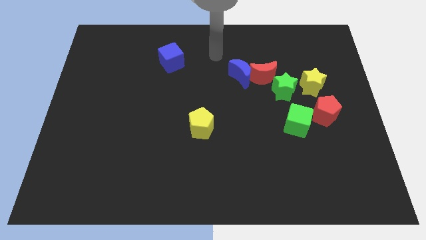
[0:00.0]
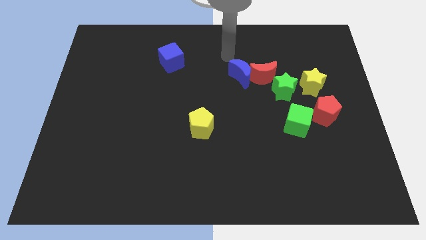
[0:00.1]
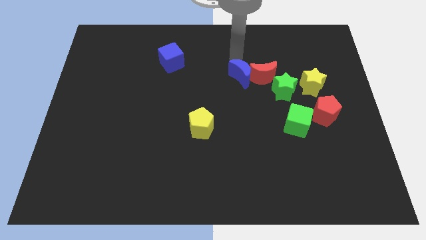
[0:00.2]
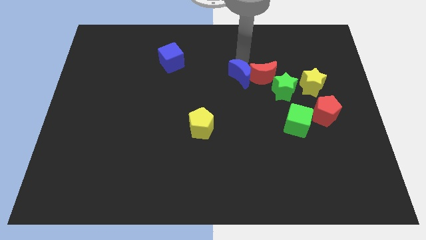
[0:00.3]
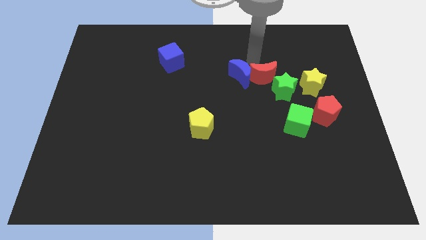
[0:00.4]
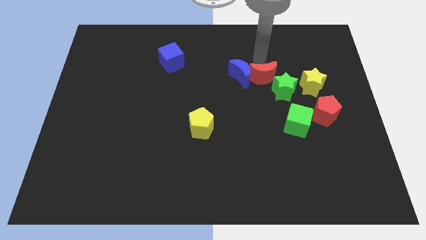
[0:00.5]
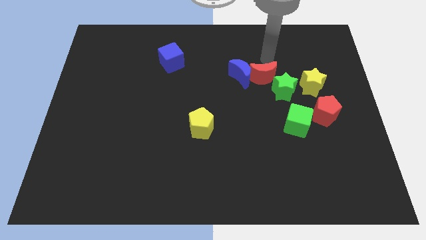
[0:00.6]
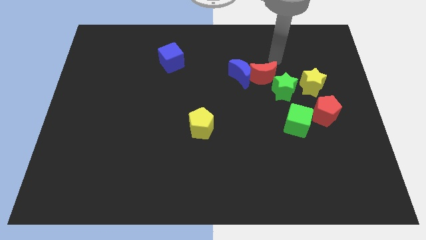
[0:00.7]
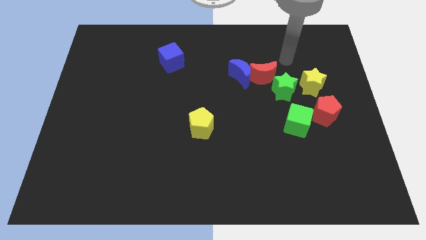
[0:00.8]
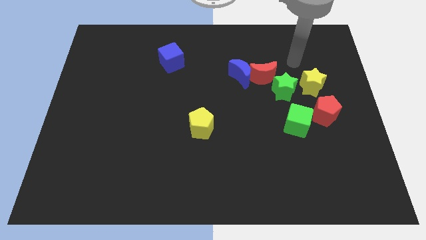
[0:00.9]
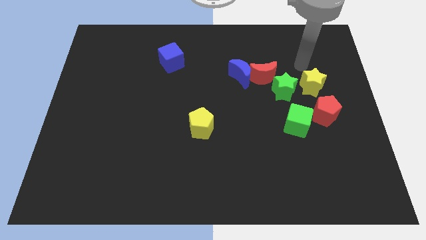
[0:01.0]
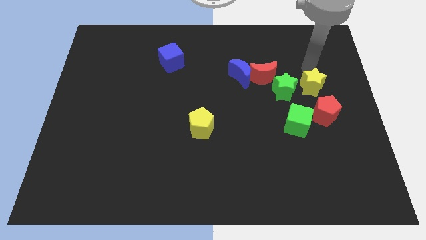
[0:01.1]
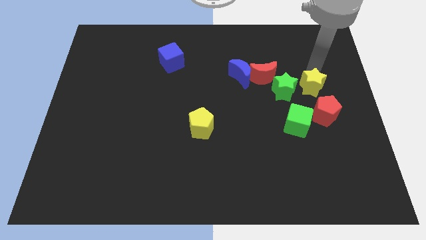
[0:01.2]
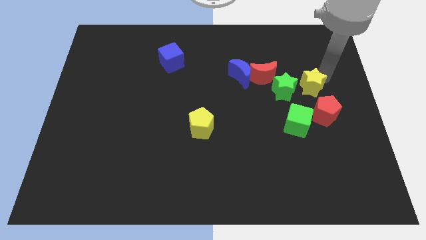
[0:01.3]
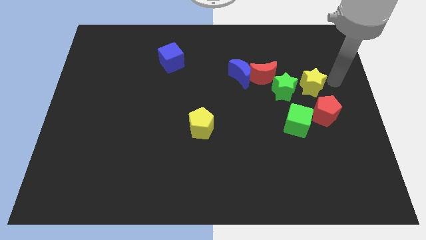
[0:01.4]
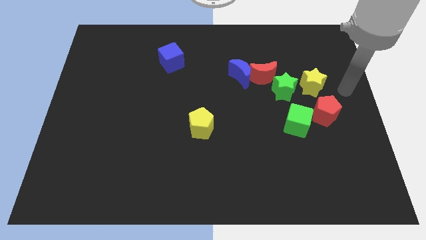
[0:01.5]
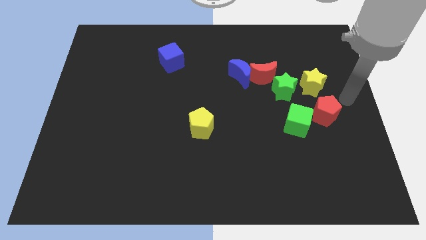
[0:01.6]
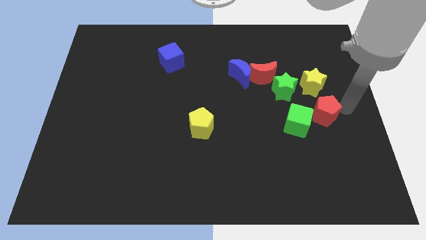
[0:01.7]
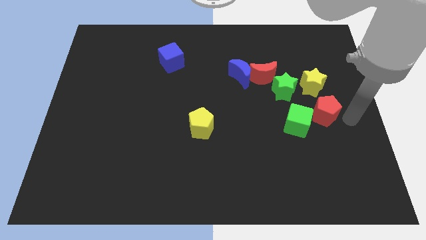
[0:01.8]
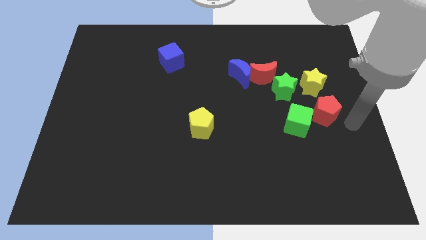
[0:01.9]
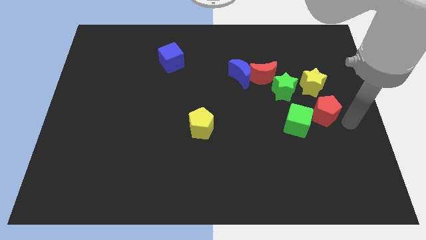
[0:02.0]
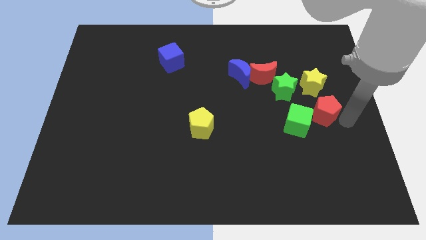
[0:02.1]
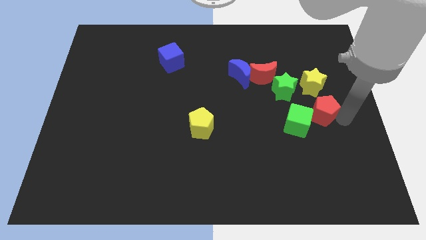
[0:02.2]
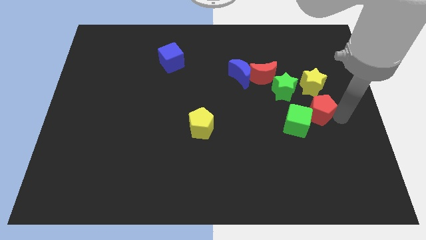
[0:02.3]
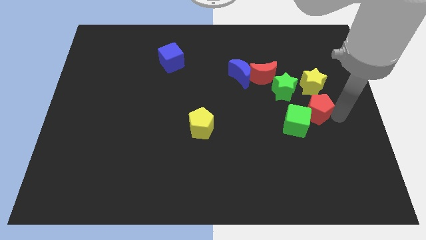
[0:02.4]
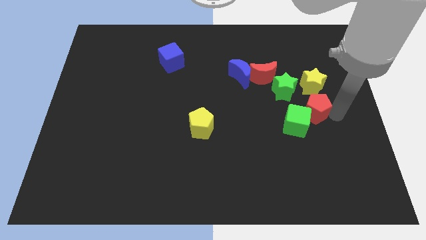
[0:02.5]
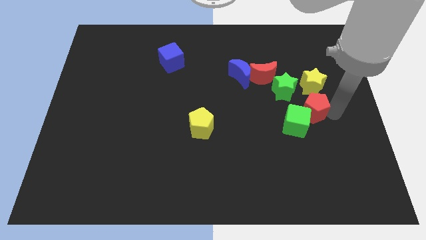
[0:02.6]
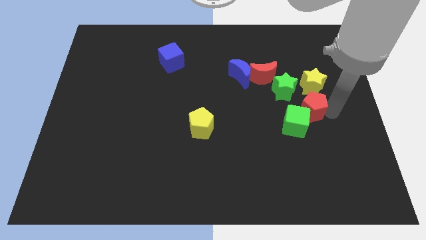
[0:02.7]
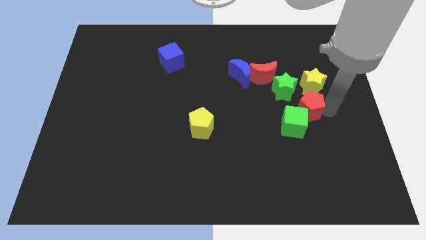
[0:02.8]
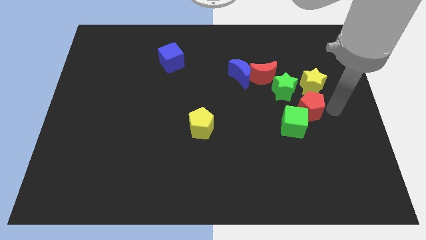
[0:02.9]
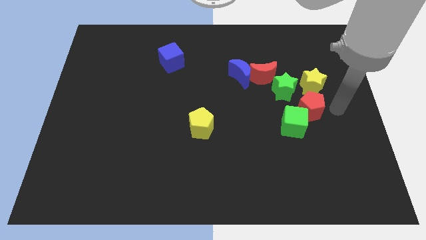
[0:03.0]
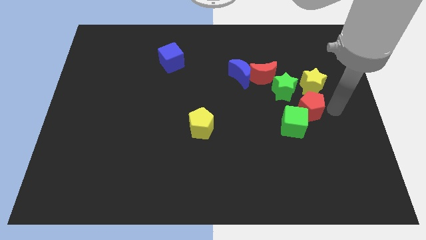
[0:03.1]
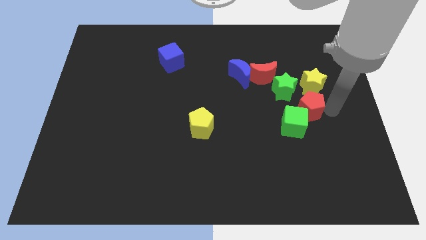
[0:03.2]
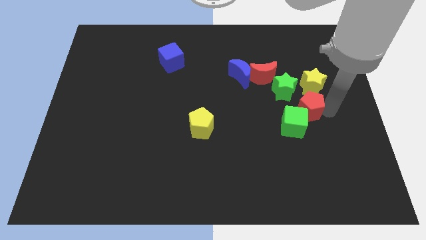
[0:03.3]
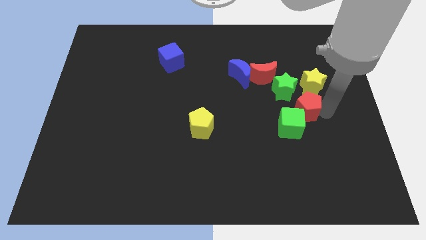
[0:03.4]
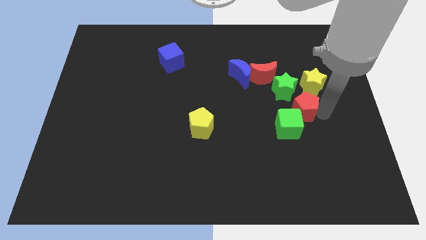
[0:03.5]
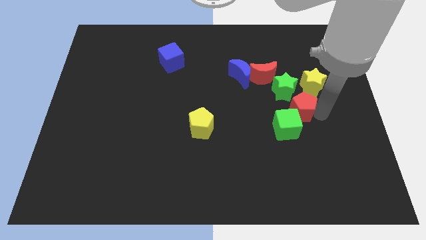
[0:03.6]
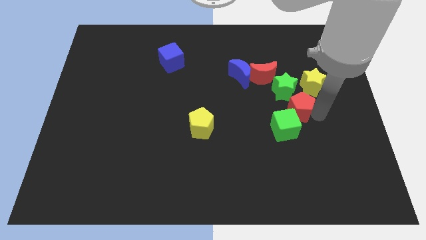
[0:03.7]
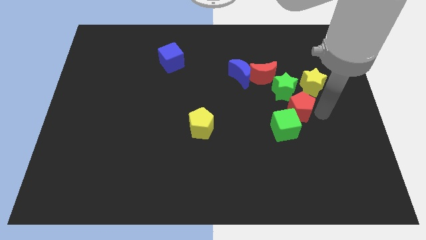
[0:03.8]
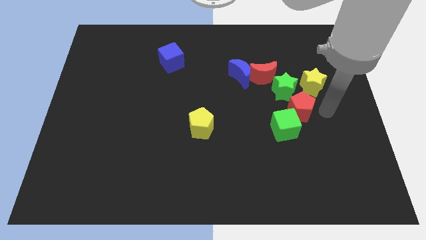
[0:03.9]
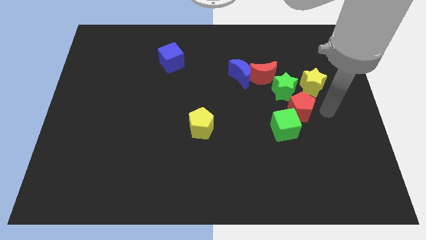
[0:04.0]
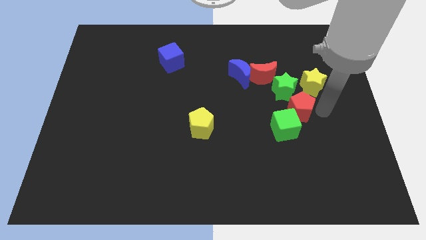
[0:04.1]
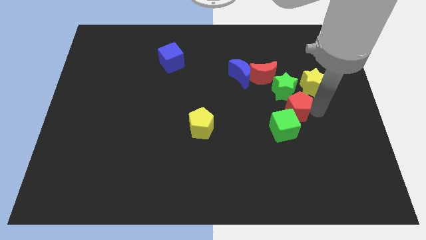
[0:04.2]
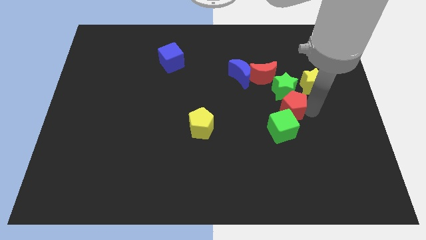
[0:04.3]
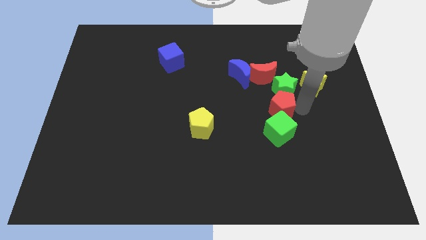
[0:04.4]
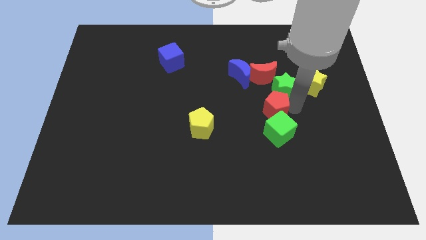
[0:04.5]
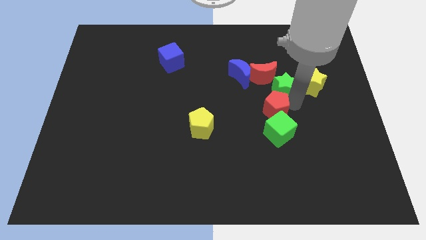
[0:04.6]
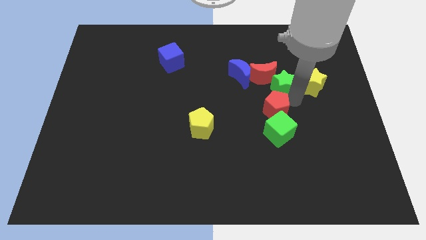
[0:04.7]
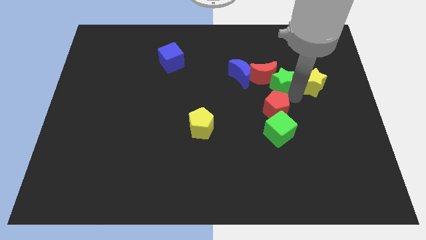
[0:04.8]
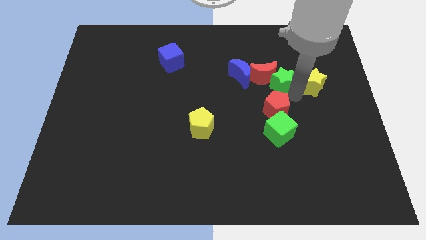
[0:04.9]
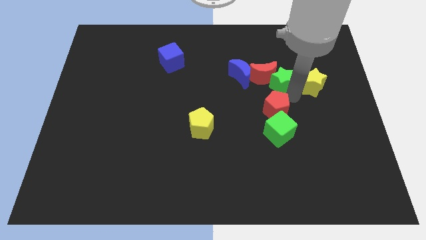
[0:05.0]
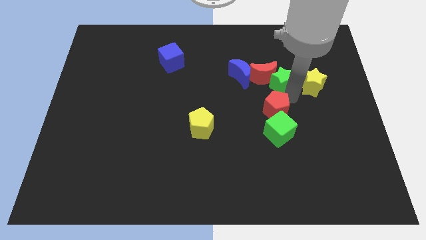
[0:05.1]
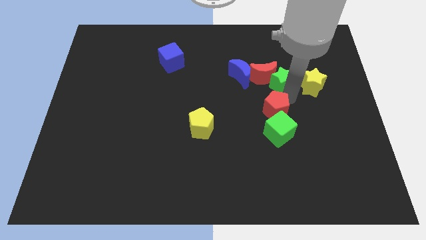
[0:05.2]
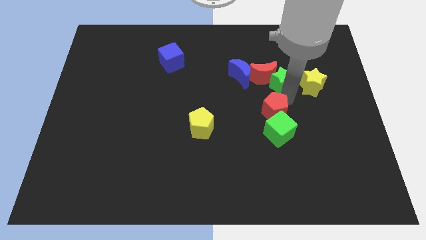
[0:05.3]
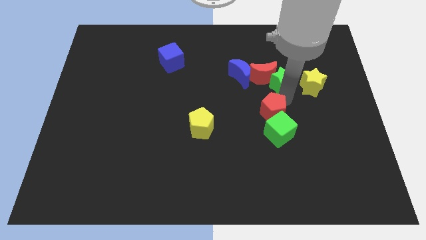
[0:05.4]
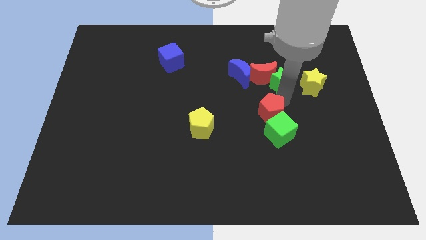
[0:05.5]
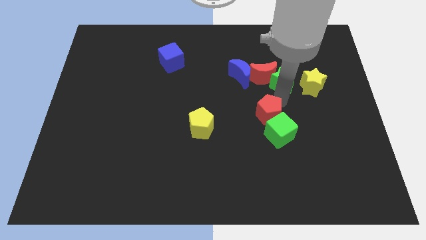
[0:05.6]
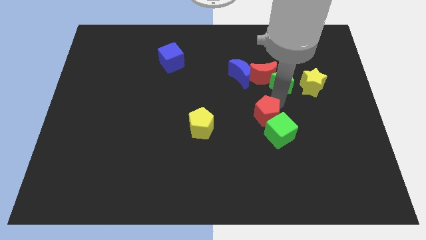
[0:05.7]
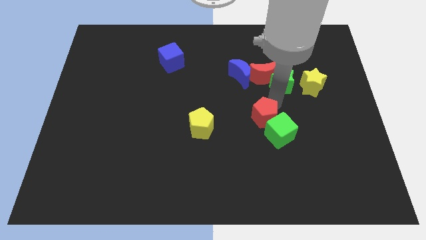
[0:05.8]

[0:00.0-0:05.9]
slide the red pentagon to the right of the yellow pentagon

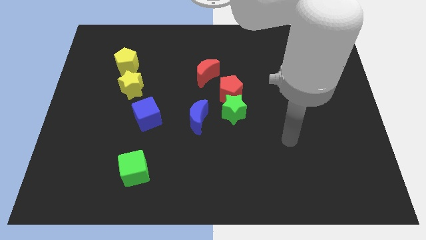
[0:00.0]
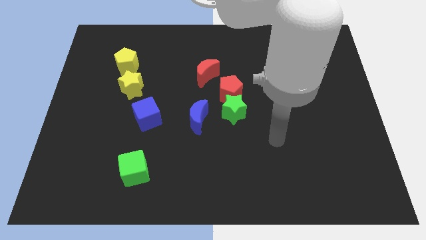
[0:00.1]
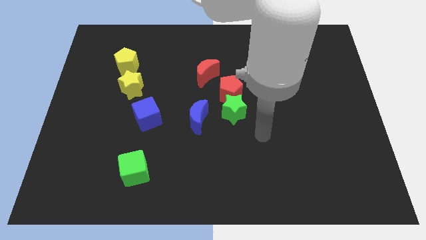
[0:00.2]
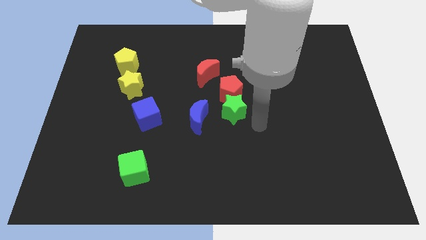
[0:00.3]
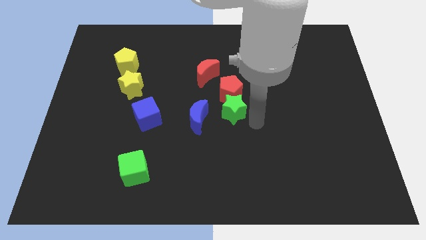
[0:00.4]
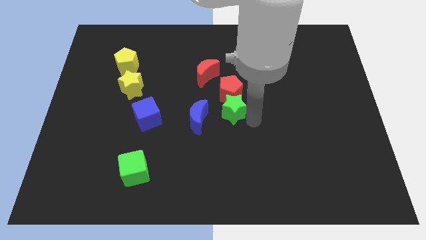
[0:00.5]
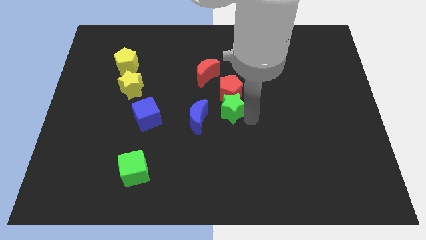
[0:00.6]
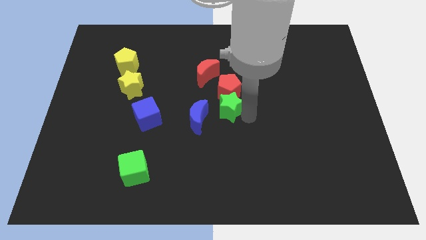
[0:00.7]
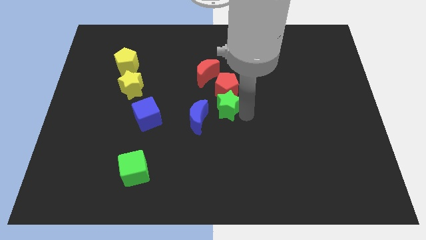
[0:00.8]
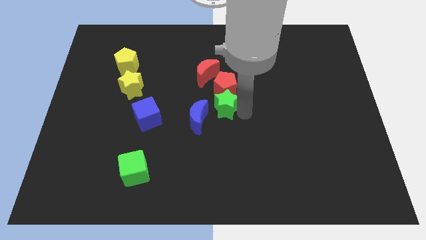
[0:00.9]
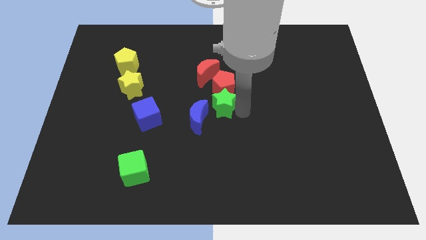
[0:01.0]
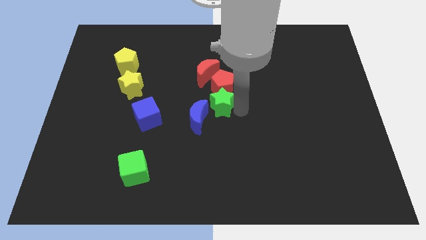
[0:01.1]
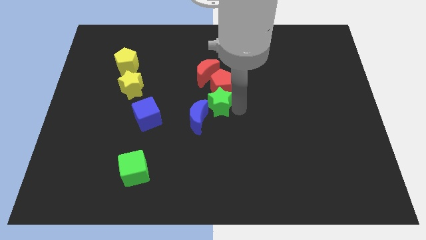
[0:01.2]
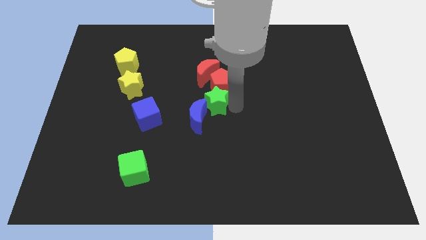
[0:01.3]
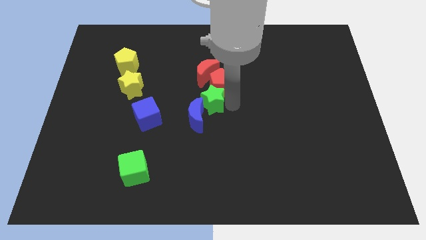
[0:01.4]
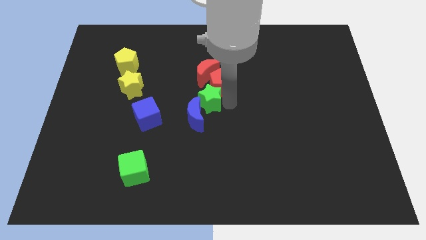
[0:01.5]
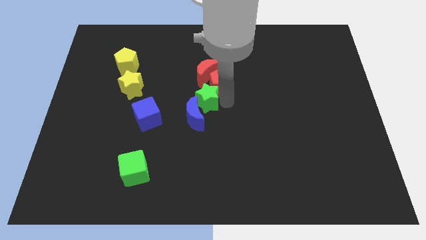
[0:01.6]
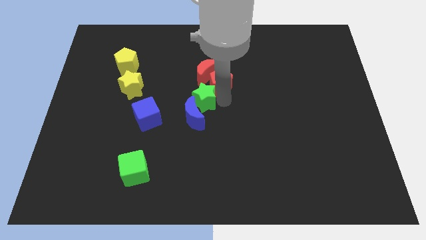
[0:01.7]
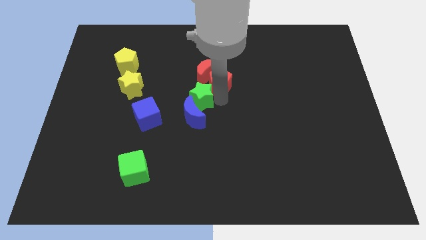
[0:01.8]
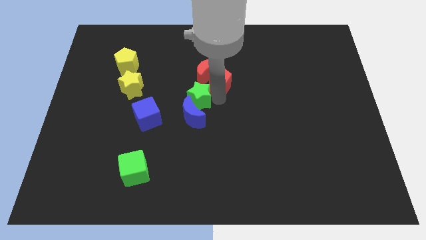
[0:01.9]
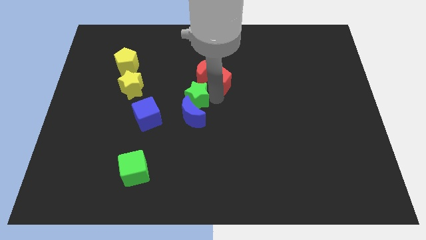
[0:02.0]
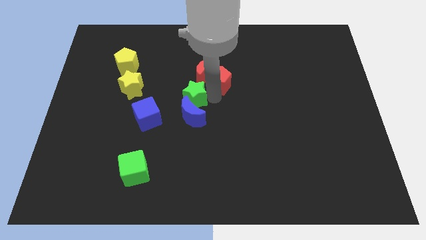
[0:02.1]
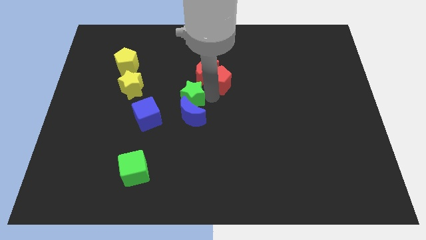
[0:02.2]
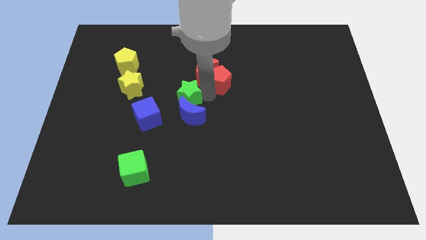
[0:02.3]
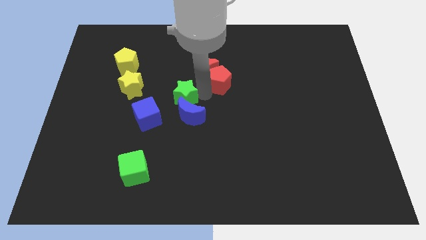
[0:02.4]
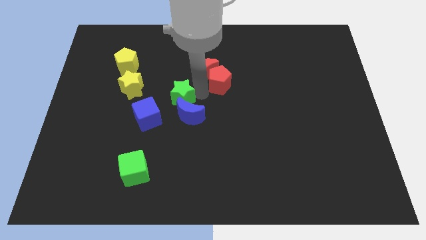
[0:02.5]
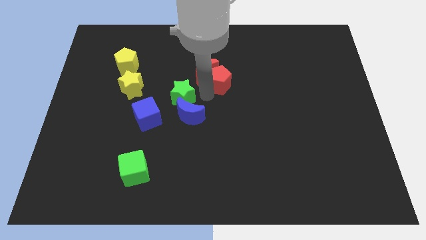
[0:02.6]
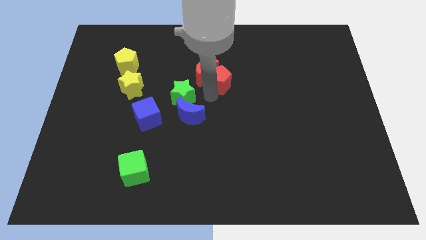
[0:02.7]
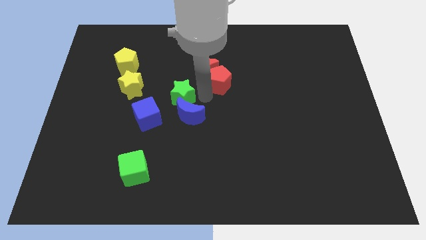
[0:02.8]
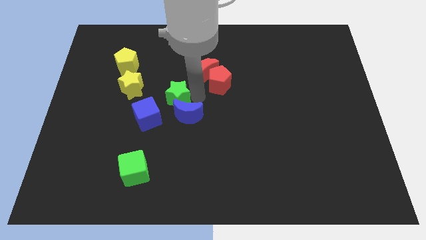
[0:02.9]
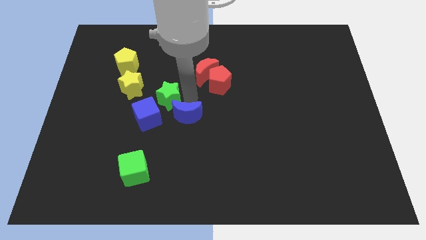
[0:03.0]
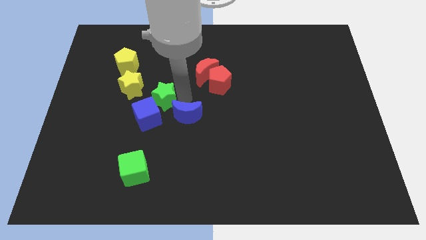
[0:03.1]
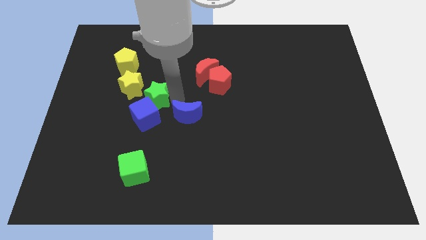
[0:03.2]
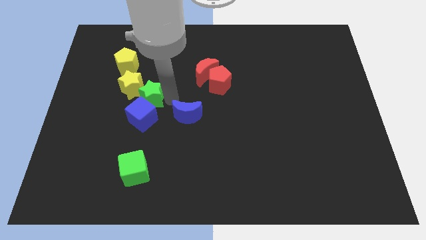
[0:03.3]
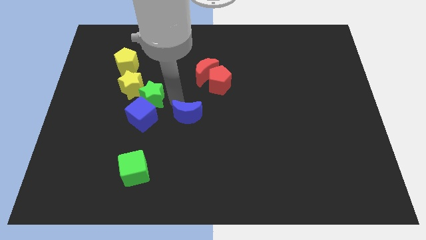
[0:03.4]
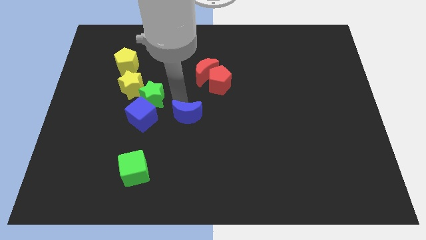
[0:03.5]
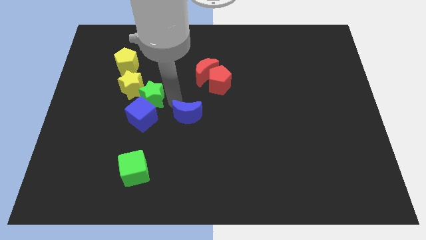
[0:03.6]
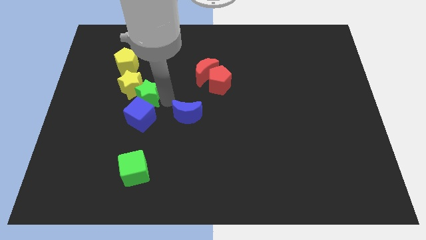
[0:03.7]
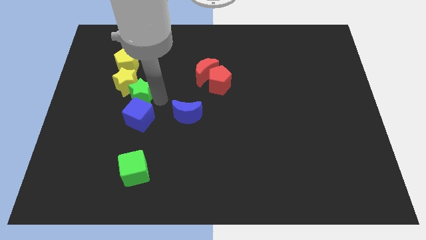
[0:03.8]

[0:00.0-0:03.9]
push the green star to the bottom of the yellow pentagon
